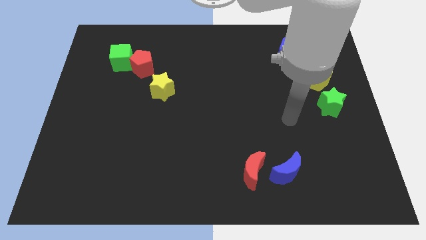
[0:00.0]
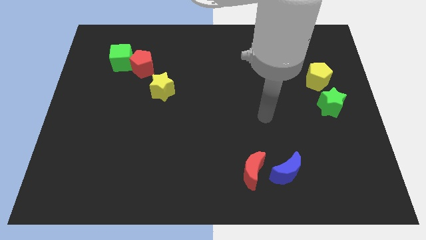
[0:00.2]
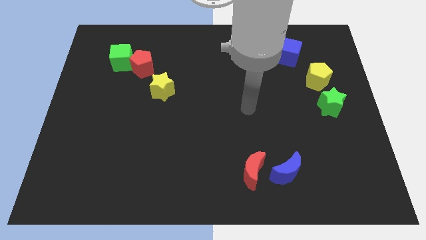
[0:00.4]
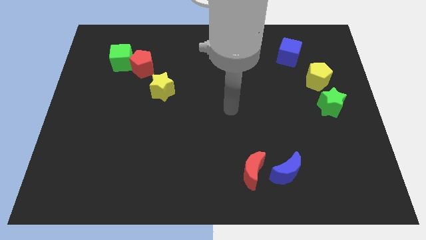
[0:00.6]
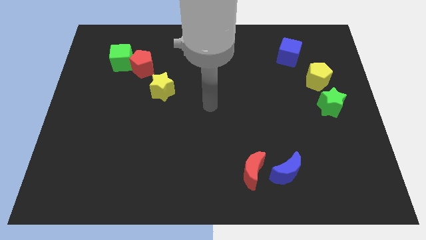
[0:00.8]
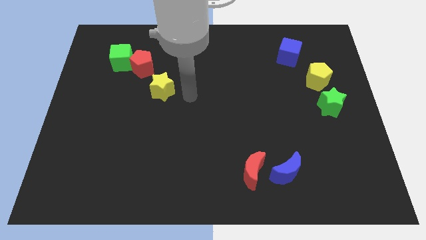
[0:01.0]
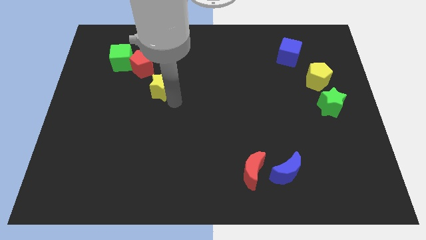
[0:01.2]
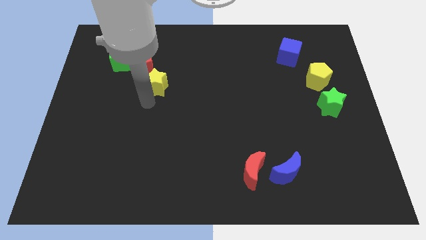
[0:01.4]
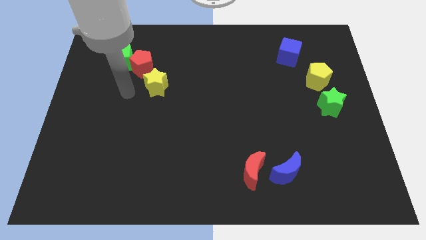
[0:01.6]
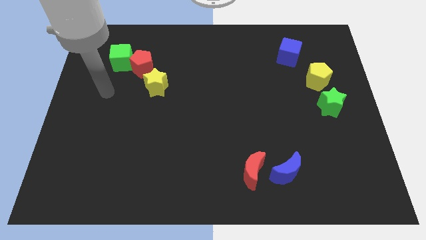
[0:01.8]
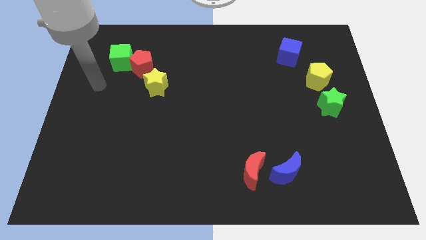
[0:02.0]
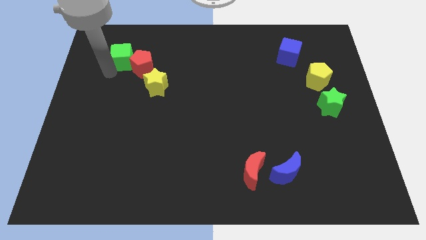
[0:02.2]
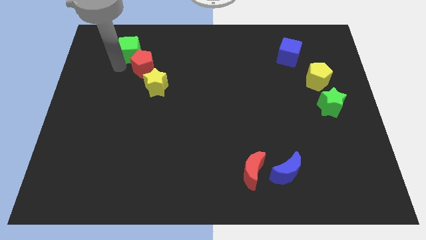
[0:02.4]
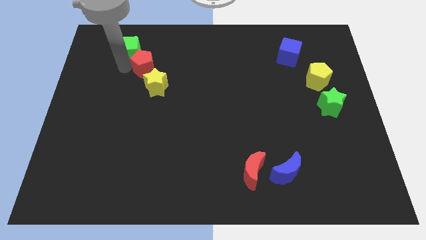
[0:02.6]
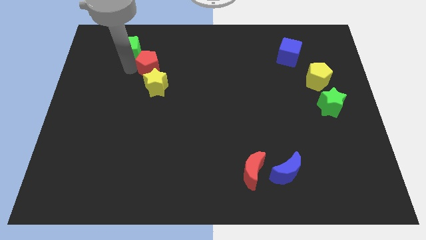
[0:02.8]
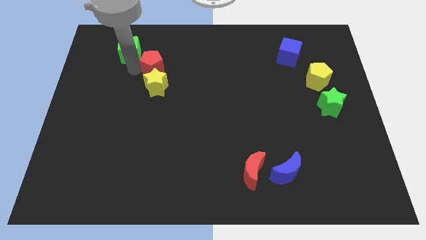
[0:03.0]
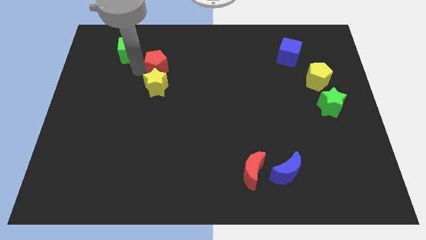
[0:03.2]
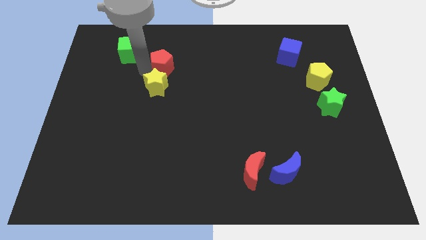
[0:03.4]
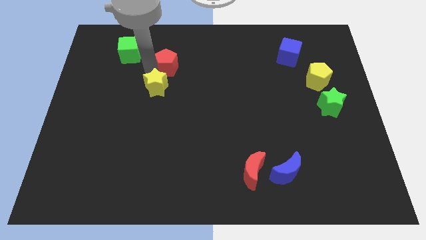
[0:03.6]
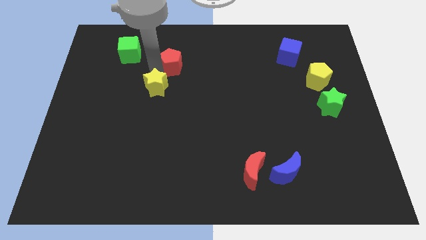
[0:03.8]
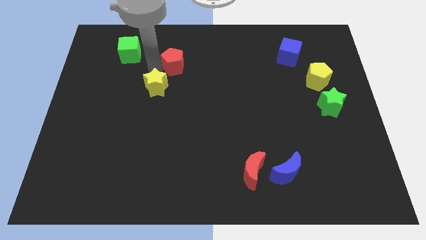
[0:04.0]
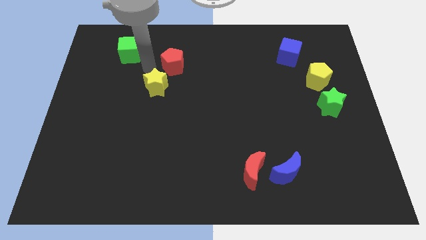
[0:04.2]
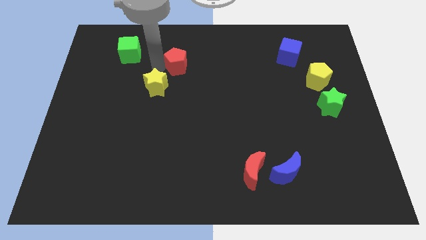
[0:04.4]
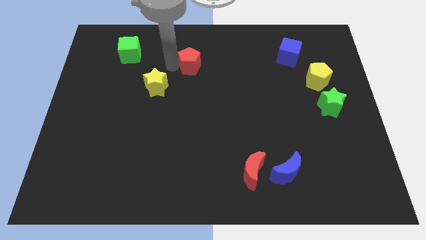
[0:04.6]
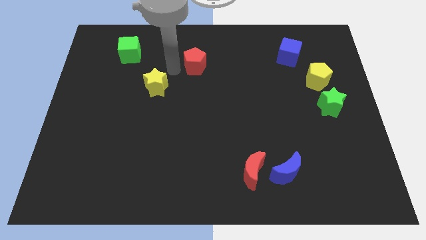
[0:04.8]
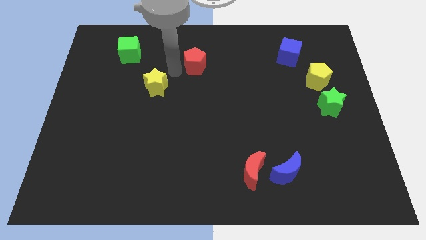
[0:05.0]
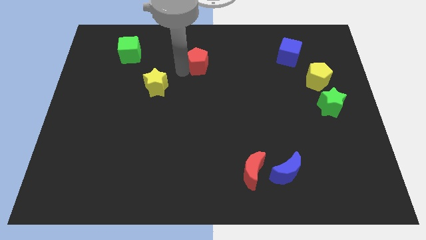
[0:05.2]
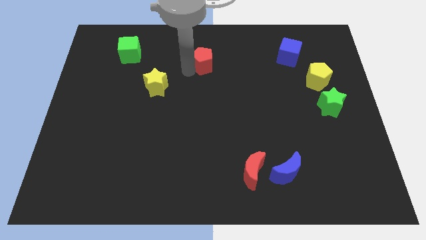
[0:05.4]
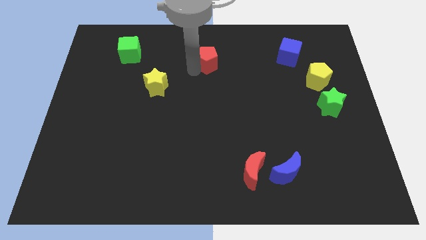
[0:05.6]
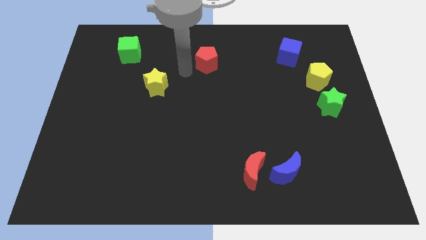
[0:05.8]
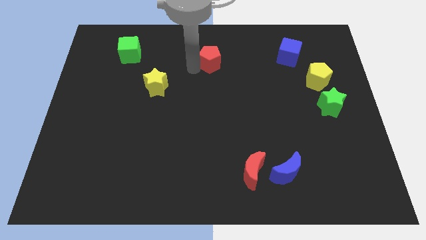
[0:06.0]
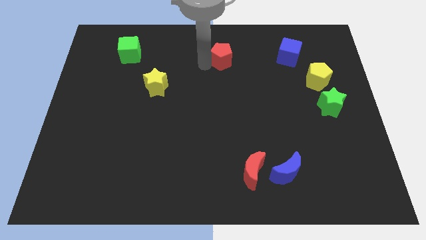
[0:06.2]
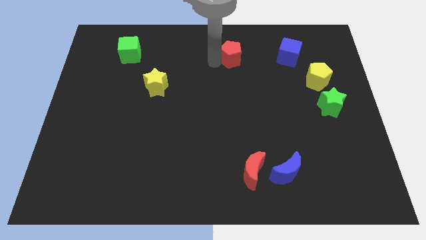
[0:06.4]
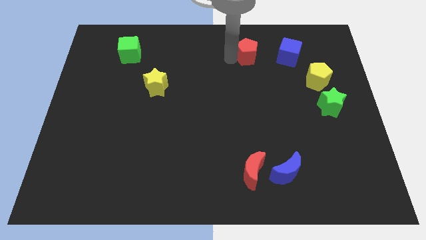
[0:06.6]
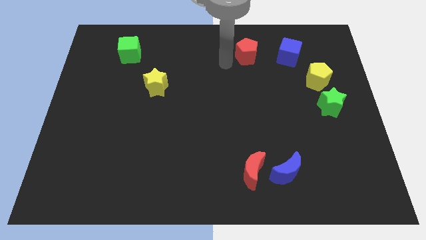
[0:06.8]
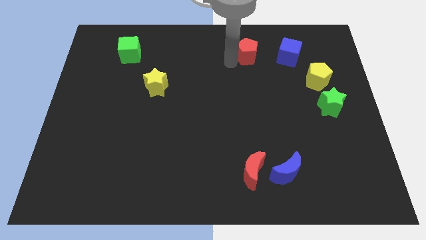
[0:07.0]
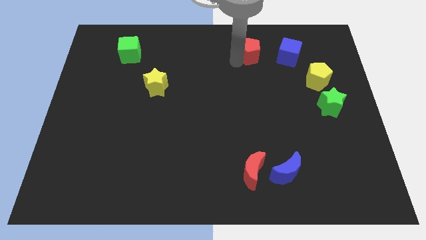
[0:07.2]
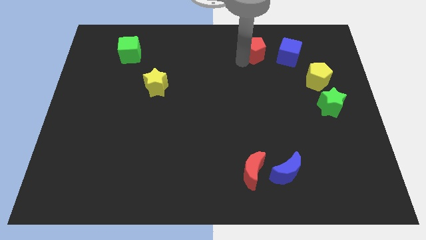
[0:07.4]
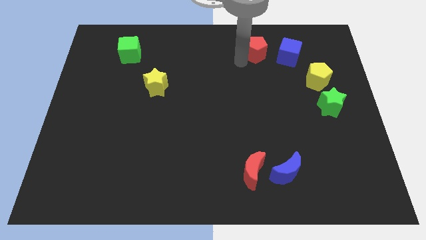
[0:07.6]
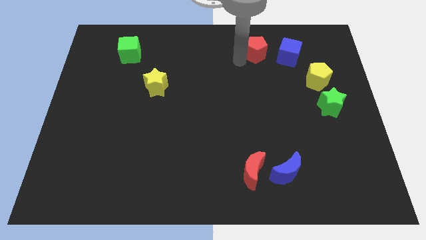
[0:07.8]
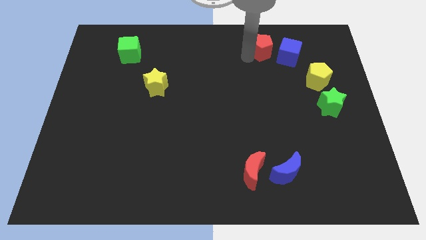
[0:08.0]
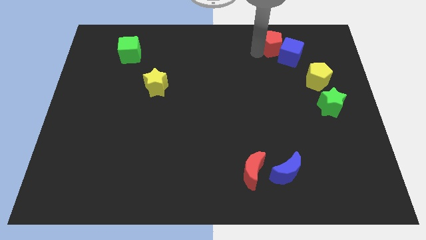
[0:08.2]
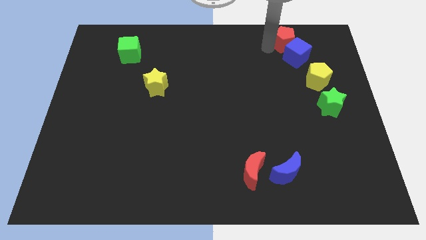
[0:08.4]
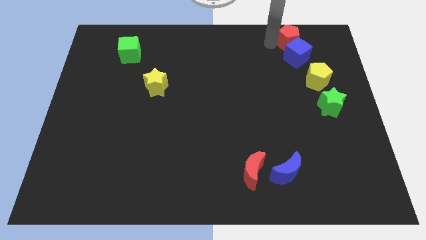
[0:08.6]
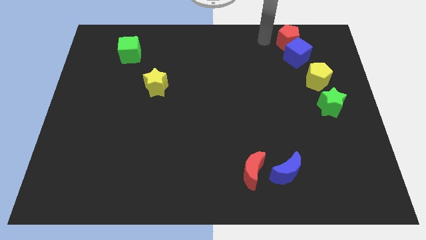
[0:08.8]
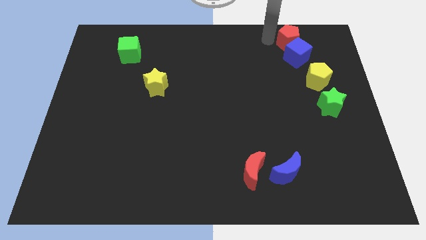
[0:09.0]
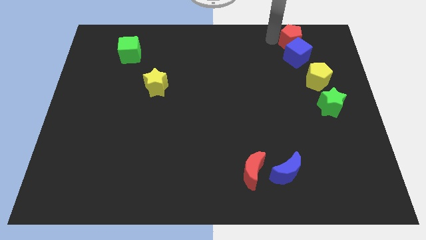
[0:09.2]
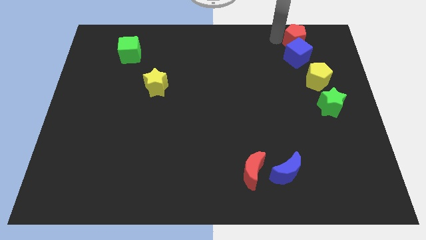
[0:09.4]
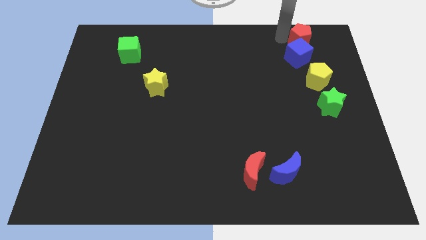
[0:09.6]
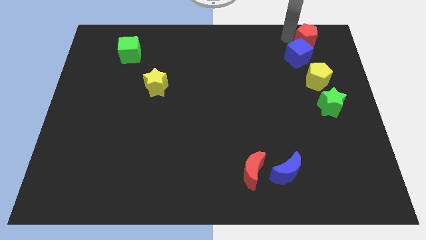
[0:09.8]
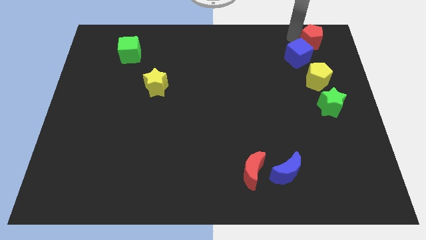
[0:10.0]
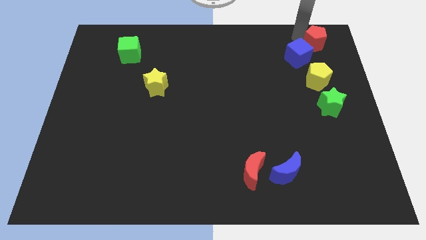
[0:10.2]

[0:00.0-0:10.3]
push the red pentagon to the top right of the board

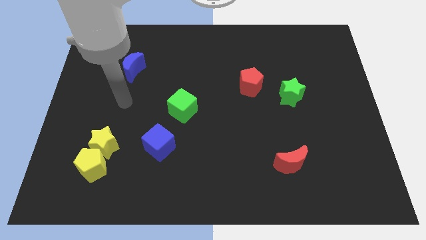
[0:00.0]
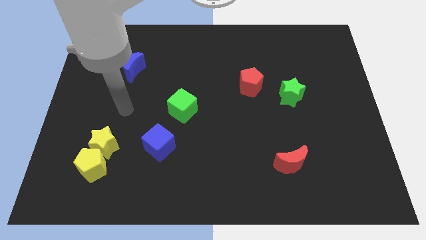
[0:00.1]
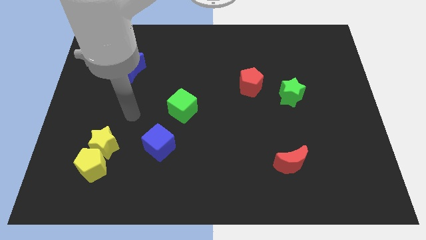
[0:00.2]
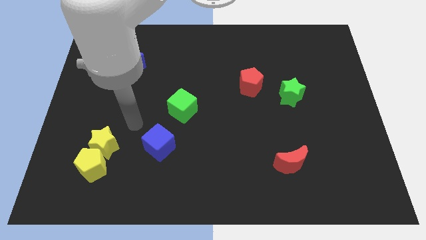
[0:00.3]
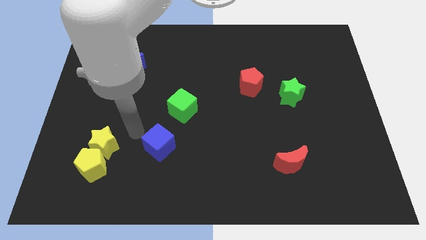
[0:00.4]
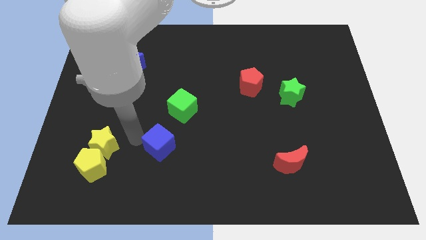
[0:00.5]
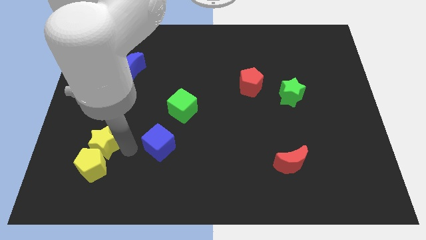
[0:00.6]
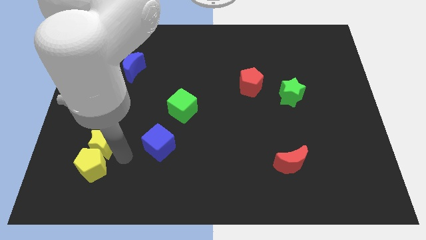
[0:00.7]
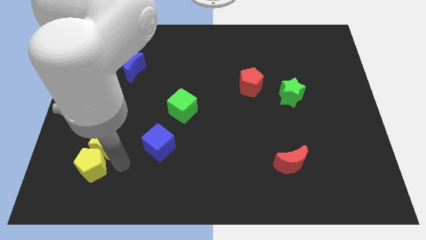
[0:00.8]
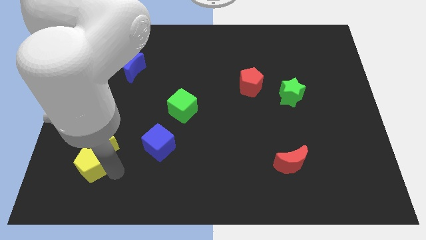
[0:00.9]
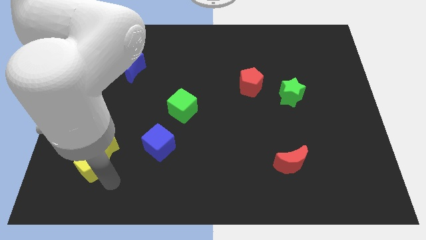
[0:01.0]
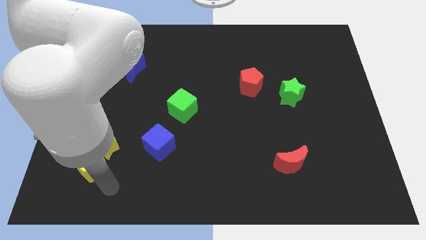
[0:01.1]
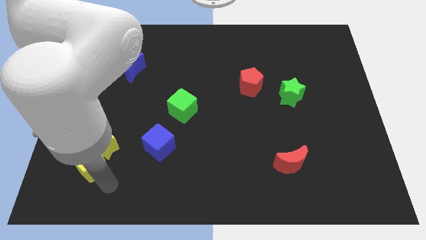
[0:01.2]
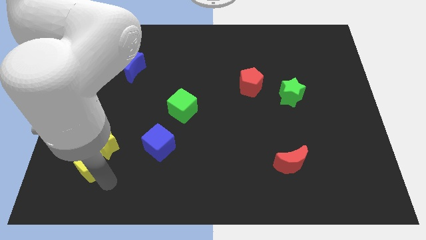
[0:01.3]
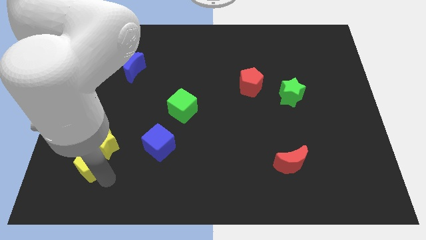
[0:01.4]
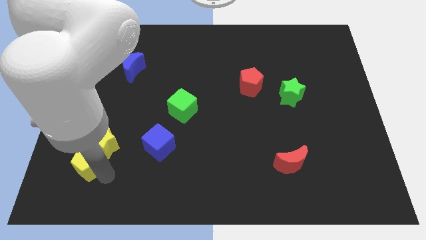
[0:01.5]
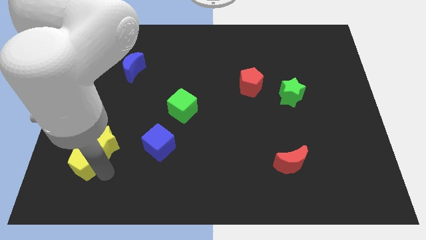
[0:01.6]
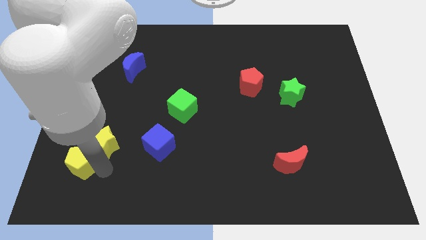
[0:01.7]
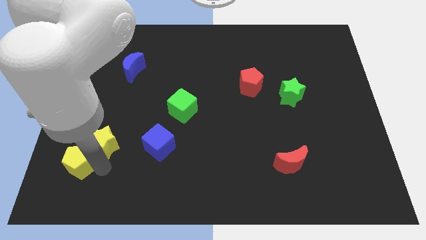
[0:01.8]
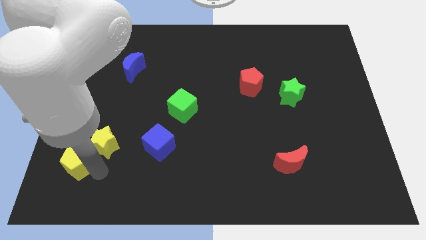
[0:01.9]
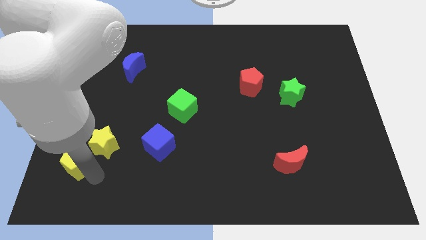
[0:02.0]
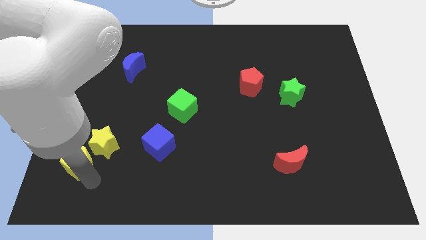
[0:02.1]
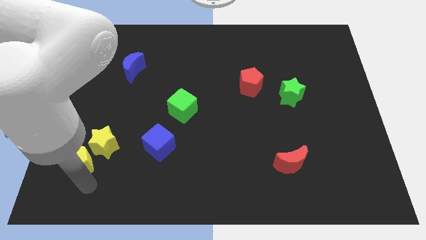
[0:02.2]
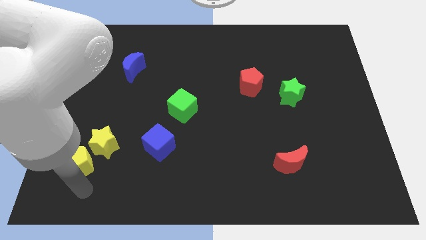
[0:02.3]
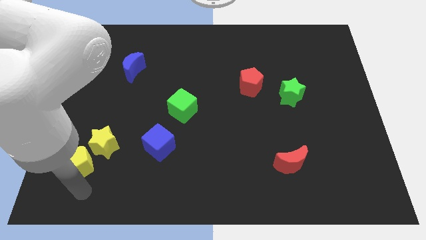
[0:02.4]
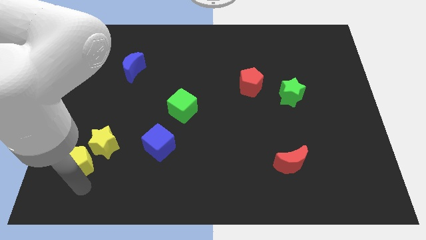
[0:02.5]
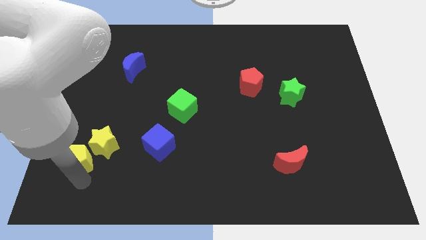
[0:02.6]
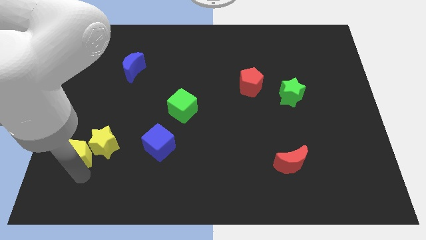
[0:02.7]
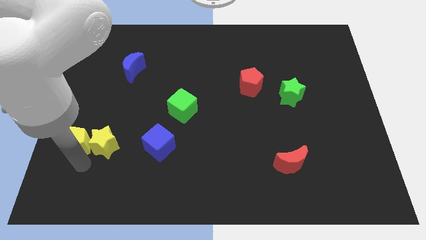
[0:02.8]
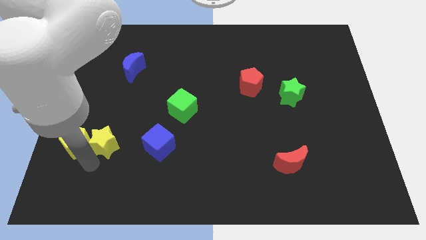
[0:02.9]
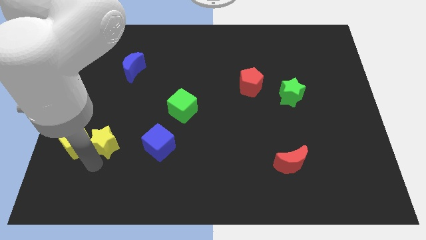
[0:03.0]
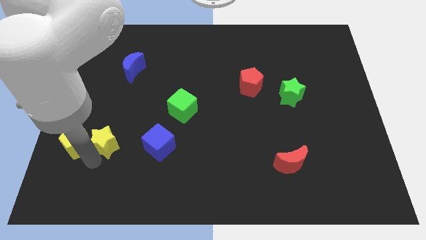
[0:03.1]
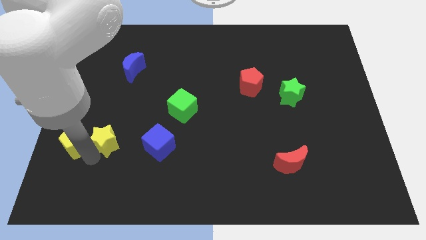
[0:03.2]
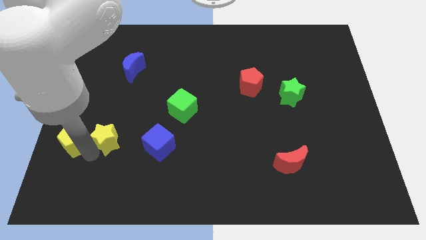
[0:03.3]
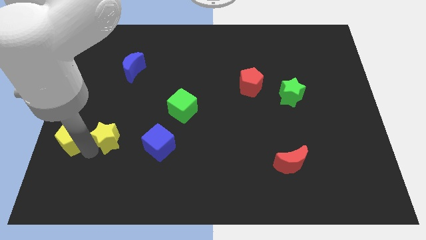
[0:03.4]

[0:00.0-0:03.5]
put the yellow pentagon to the left side of the board
